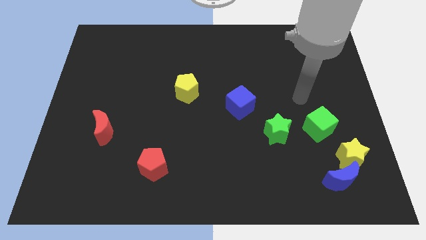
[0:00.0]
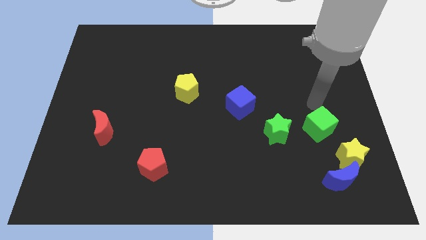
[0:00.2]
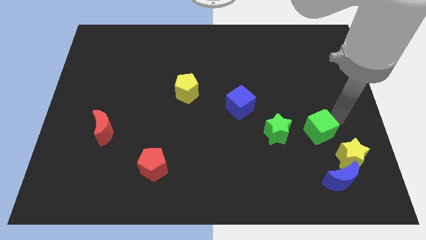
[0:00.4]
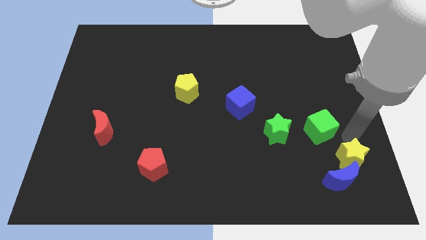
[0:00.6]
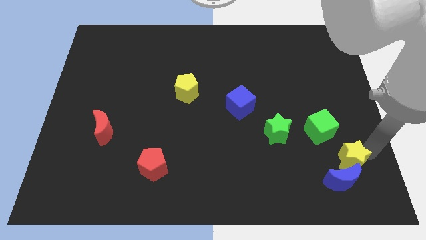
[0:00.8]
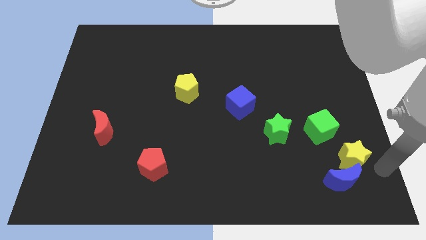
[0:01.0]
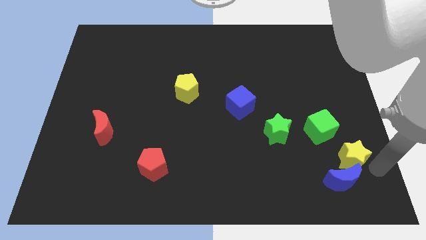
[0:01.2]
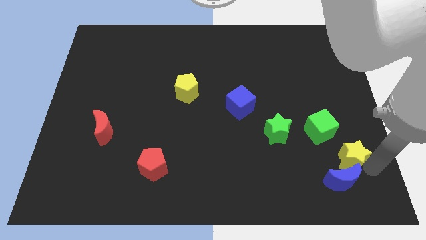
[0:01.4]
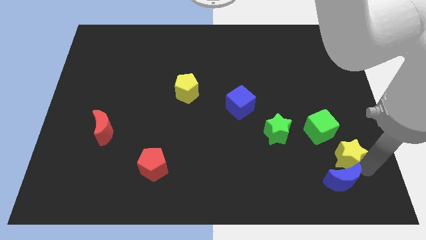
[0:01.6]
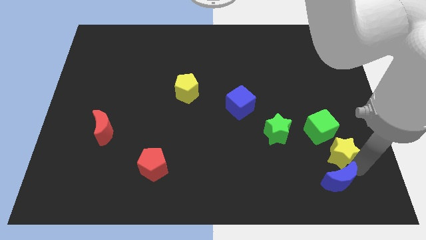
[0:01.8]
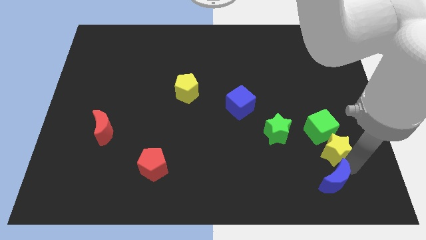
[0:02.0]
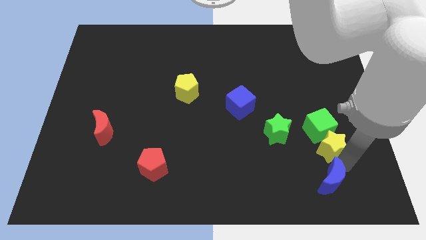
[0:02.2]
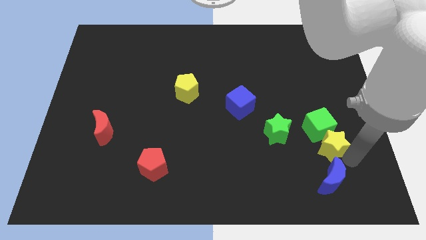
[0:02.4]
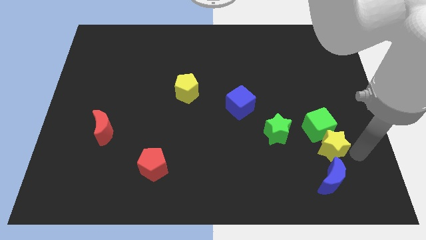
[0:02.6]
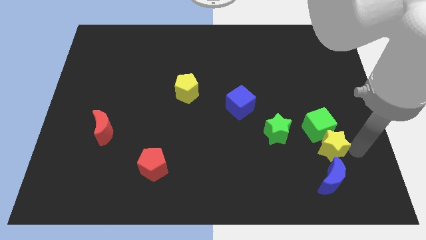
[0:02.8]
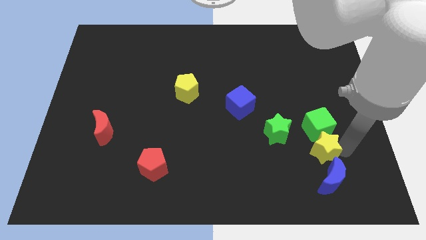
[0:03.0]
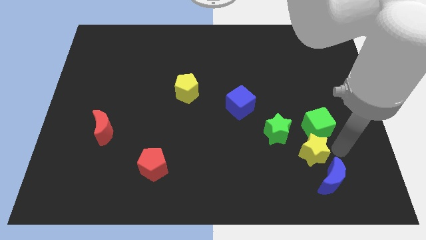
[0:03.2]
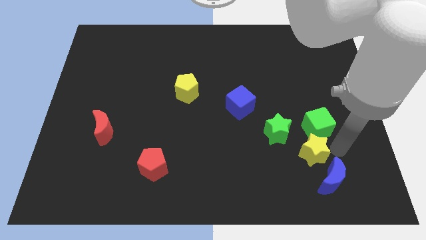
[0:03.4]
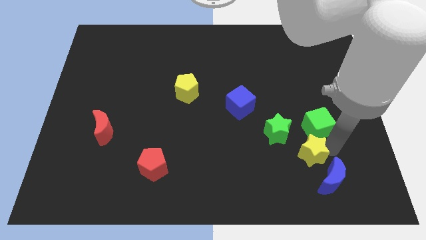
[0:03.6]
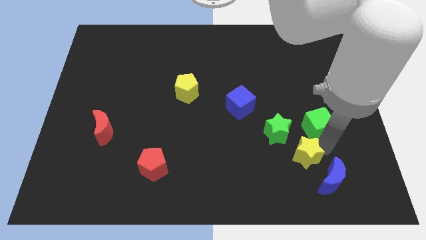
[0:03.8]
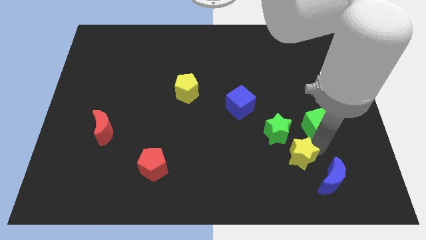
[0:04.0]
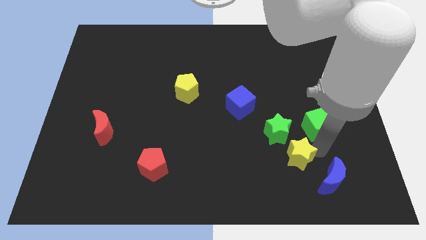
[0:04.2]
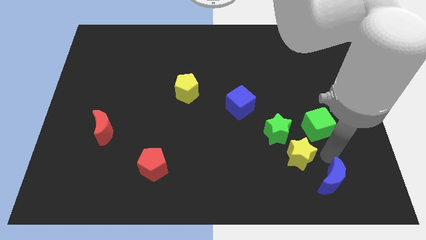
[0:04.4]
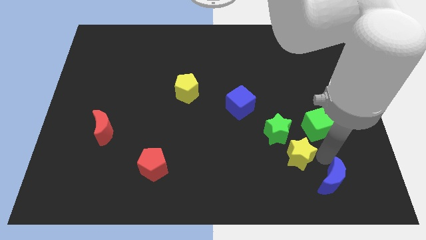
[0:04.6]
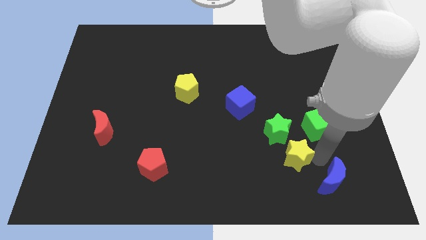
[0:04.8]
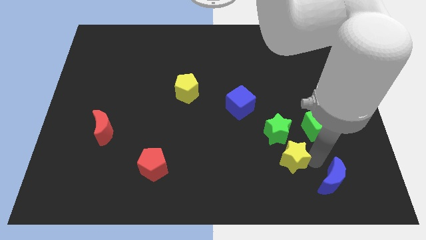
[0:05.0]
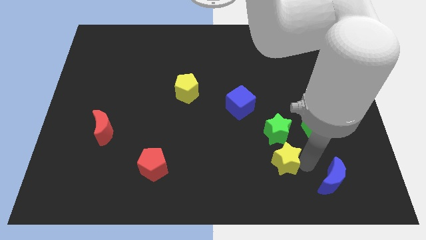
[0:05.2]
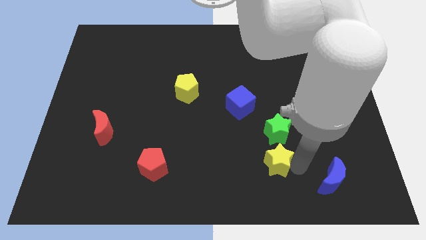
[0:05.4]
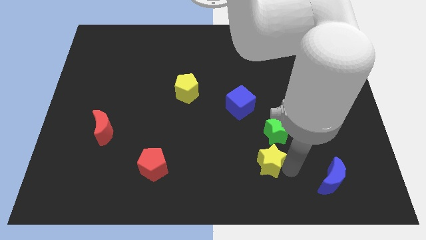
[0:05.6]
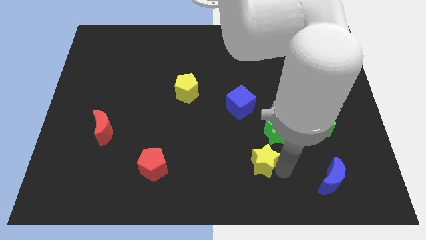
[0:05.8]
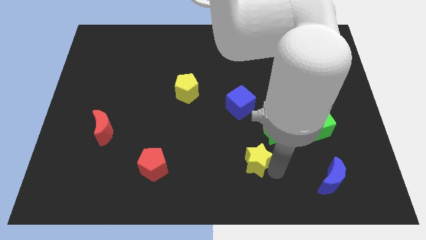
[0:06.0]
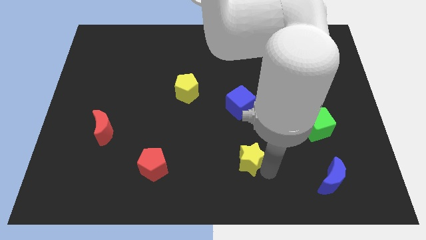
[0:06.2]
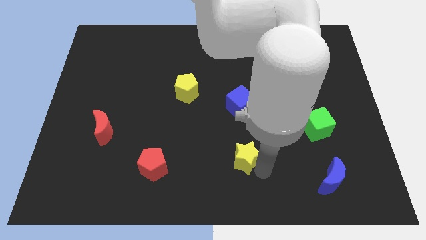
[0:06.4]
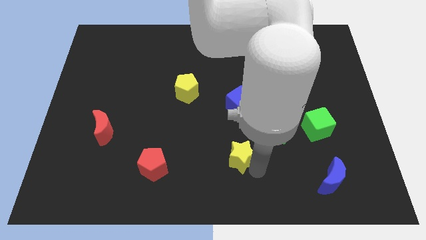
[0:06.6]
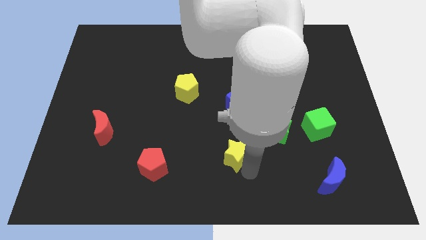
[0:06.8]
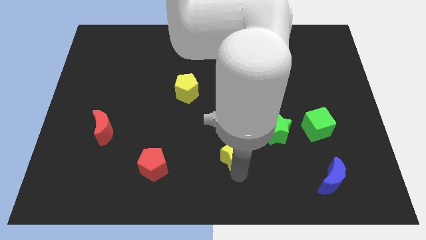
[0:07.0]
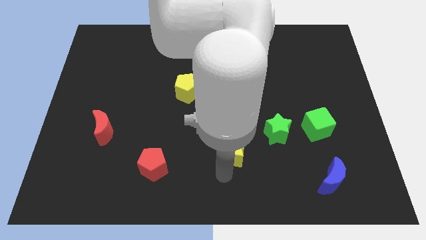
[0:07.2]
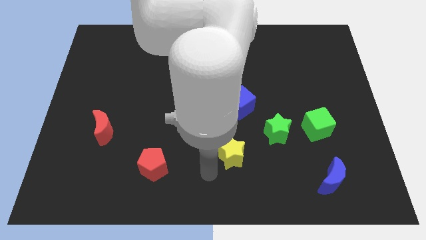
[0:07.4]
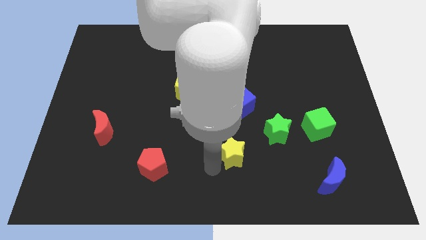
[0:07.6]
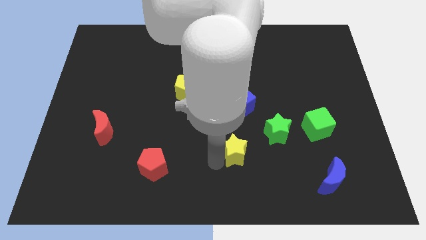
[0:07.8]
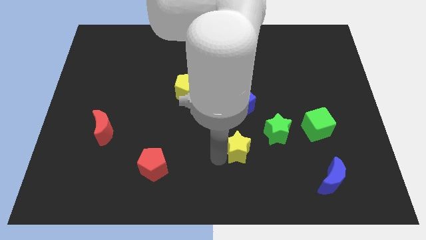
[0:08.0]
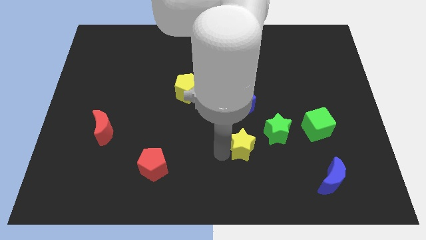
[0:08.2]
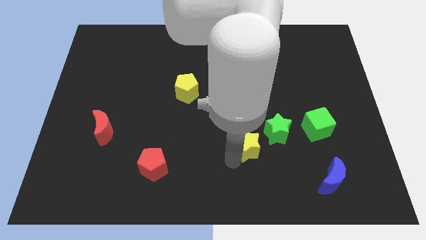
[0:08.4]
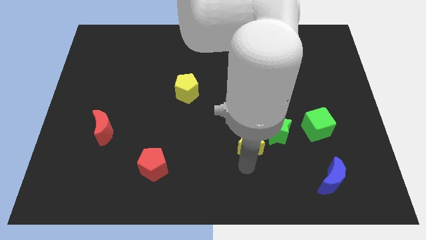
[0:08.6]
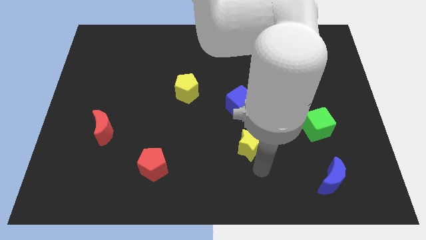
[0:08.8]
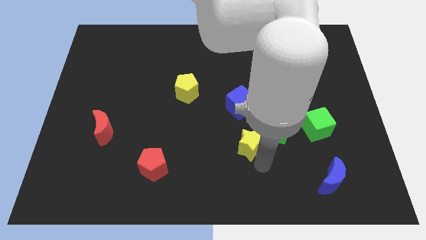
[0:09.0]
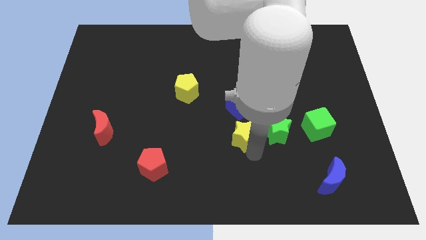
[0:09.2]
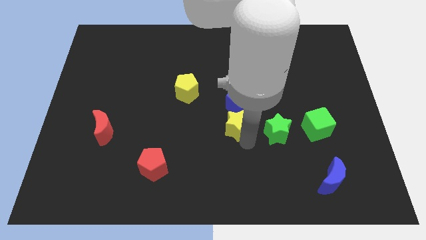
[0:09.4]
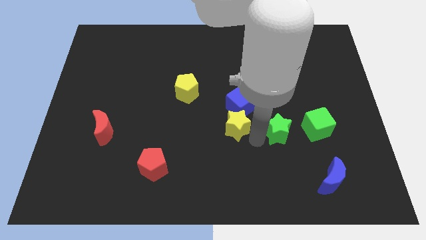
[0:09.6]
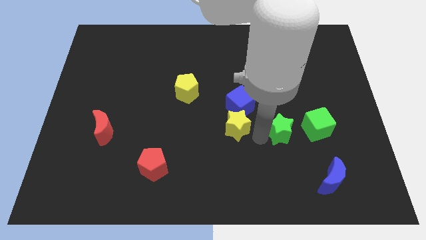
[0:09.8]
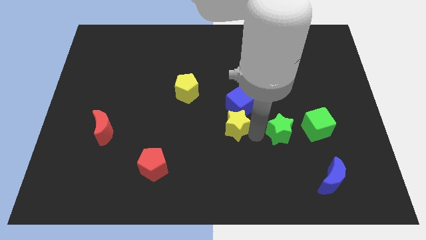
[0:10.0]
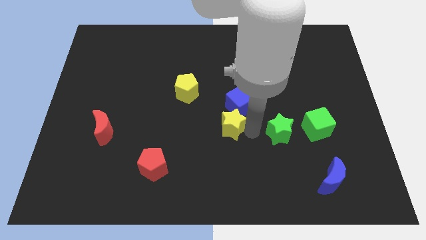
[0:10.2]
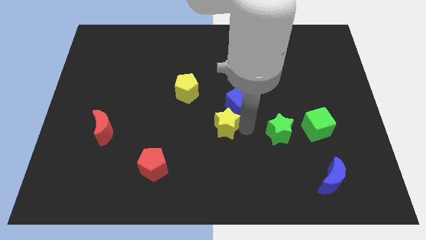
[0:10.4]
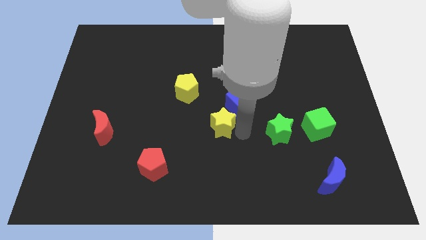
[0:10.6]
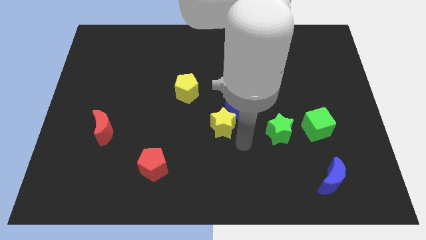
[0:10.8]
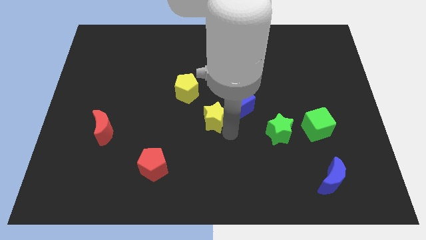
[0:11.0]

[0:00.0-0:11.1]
push the yellow star left of the blue cube
